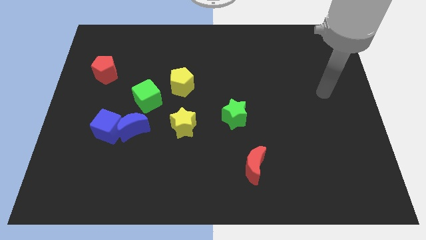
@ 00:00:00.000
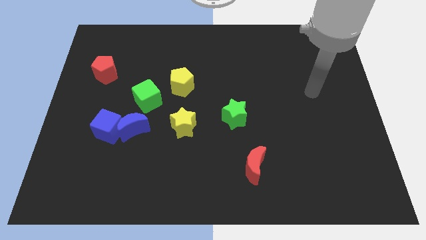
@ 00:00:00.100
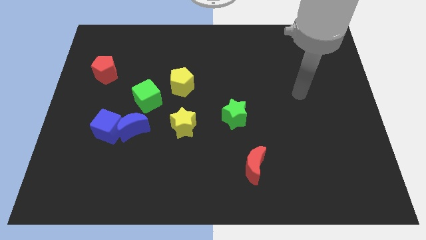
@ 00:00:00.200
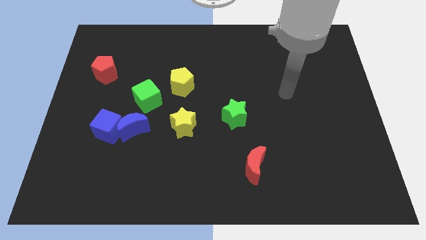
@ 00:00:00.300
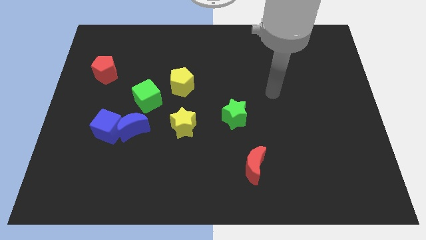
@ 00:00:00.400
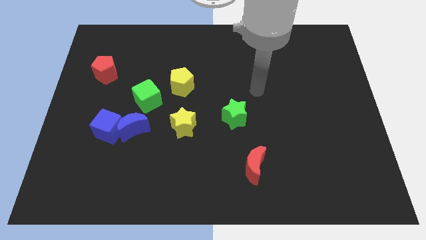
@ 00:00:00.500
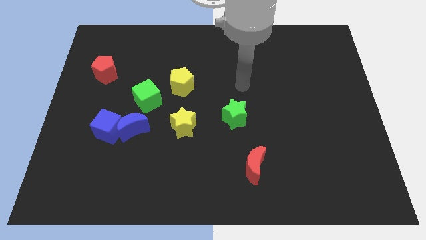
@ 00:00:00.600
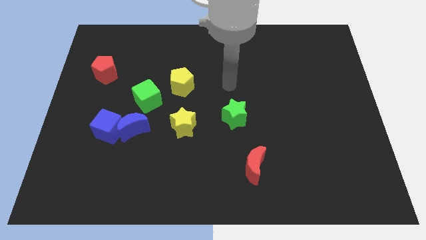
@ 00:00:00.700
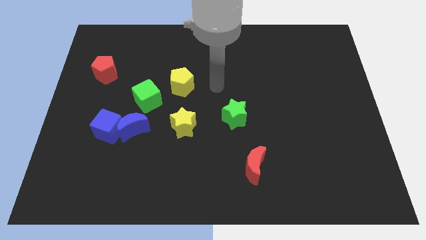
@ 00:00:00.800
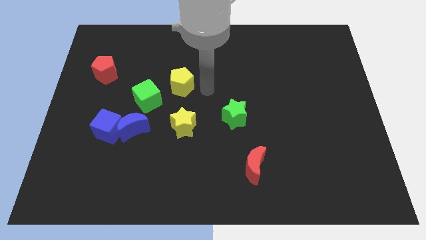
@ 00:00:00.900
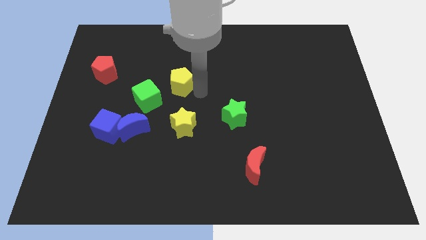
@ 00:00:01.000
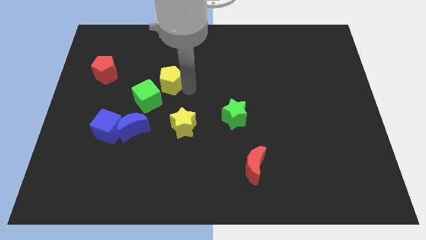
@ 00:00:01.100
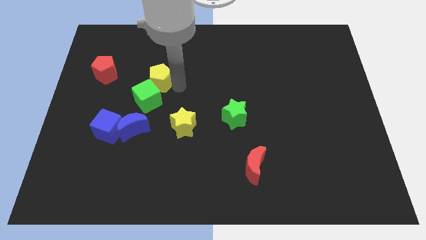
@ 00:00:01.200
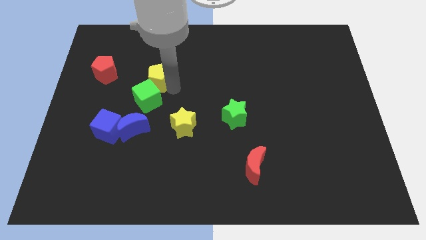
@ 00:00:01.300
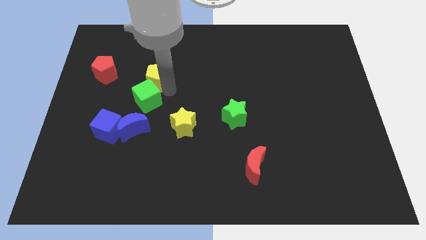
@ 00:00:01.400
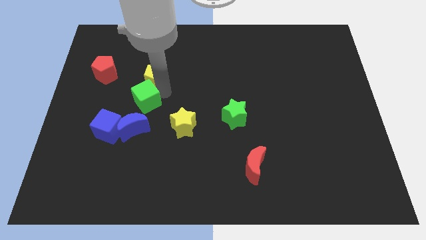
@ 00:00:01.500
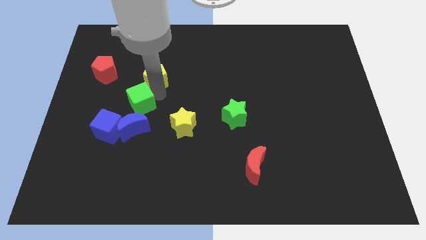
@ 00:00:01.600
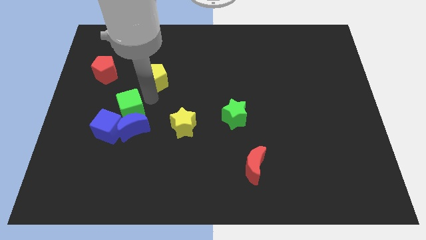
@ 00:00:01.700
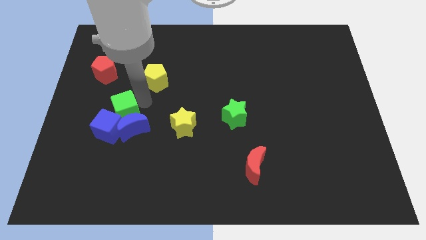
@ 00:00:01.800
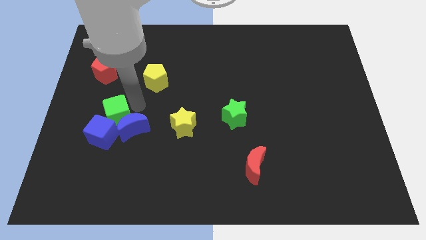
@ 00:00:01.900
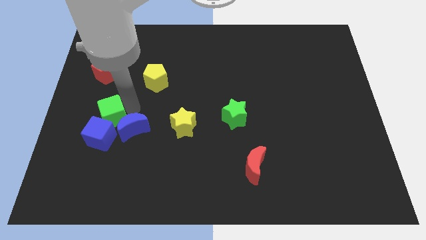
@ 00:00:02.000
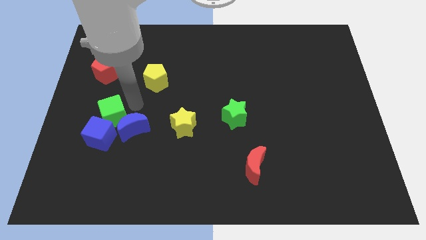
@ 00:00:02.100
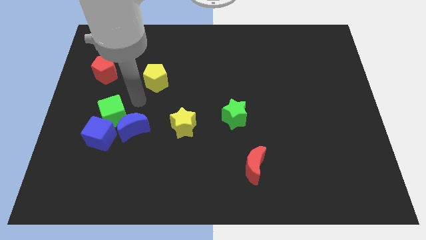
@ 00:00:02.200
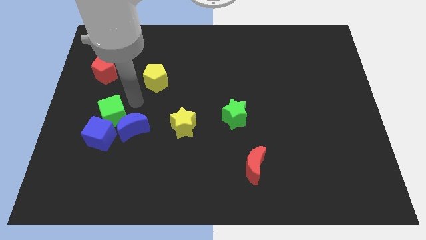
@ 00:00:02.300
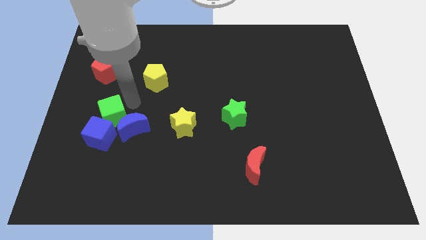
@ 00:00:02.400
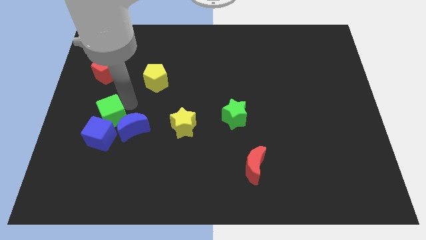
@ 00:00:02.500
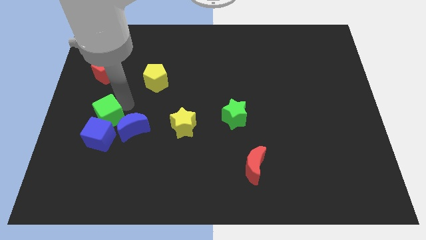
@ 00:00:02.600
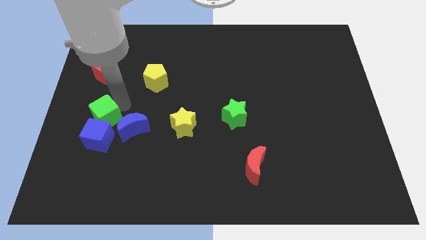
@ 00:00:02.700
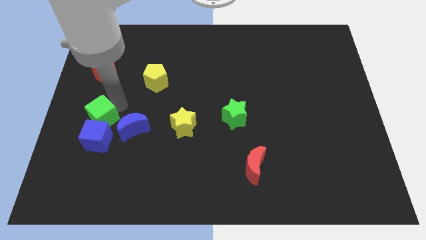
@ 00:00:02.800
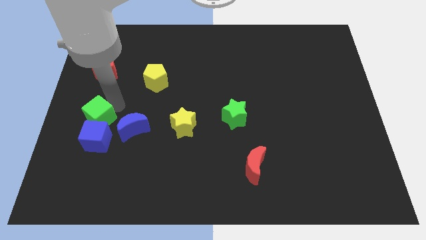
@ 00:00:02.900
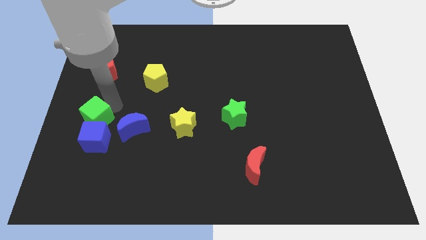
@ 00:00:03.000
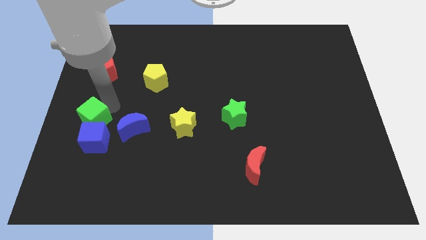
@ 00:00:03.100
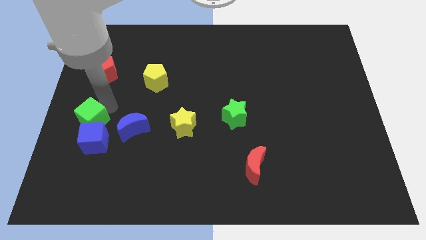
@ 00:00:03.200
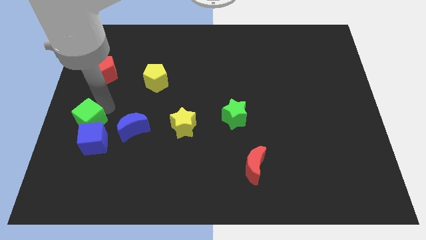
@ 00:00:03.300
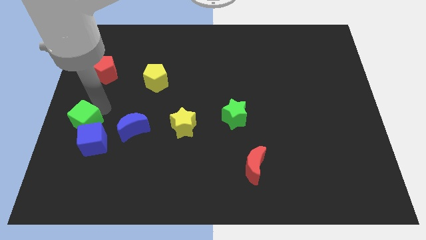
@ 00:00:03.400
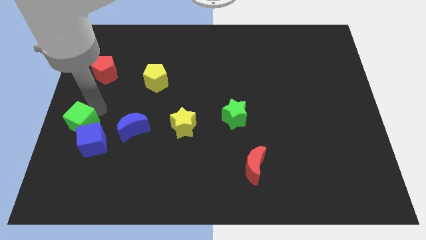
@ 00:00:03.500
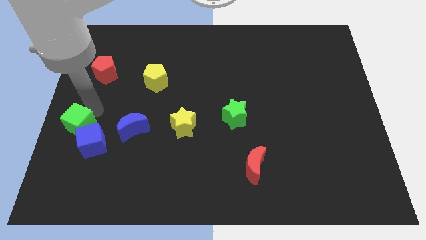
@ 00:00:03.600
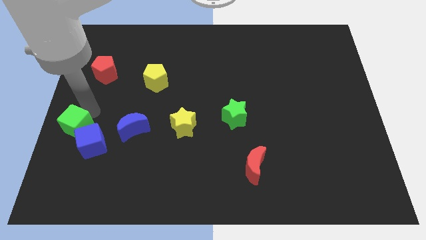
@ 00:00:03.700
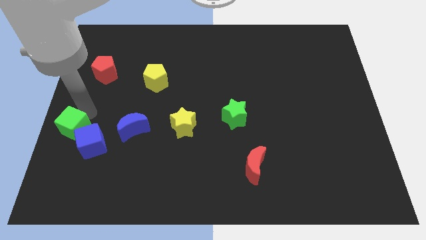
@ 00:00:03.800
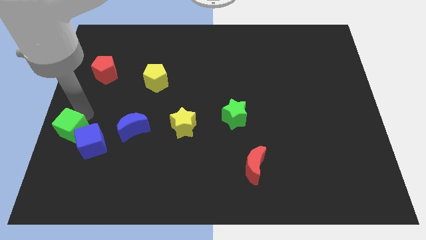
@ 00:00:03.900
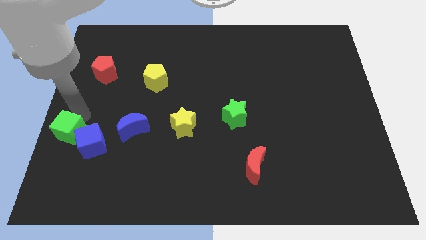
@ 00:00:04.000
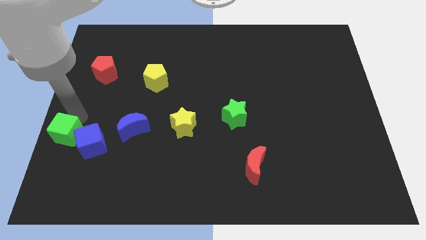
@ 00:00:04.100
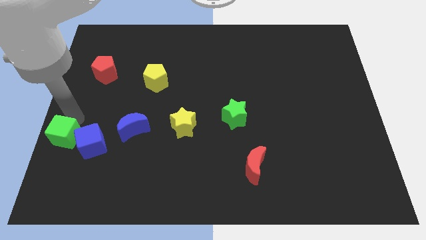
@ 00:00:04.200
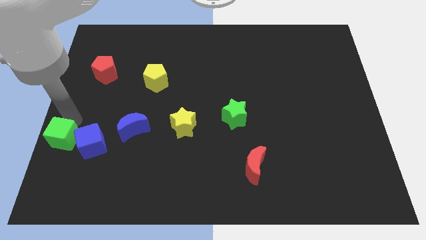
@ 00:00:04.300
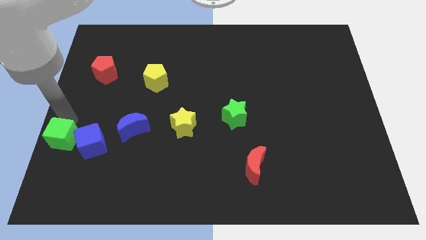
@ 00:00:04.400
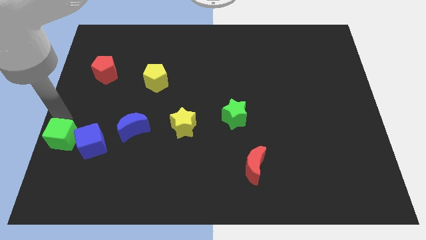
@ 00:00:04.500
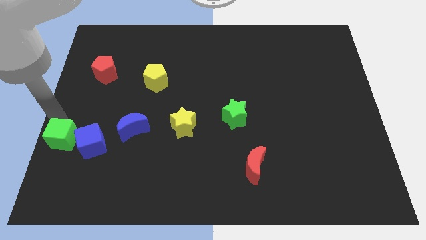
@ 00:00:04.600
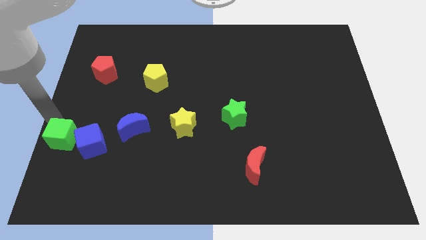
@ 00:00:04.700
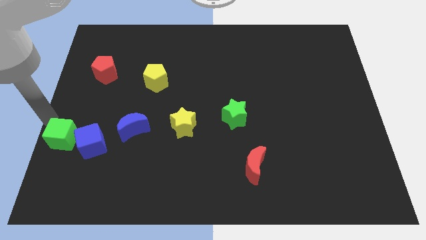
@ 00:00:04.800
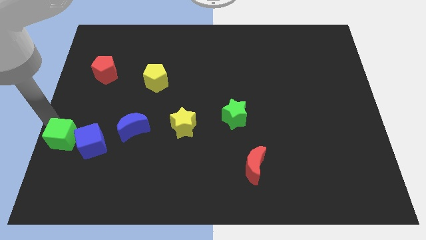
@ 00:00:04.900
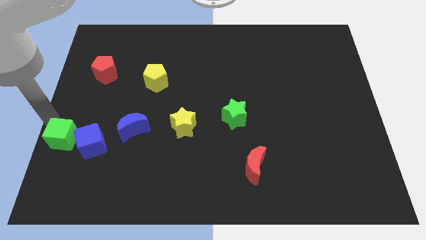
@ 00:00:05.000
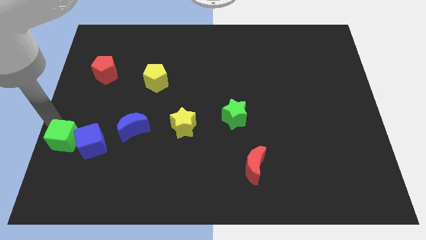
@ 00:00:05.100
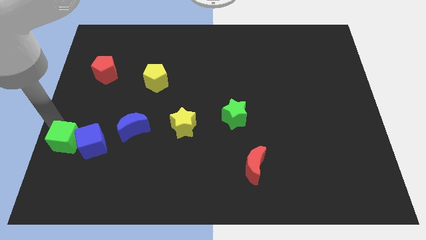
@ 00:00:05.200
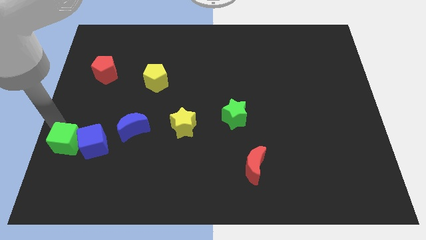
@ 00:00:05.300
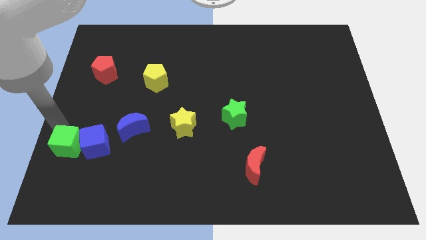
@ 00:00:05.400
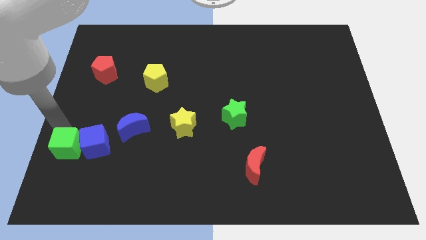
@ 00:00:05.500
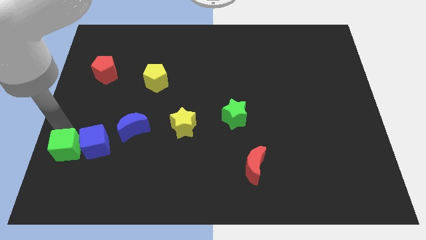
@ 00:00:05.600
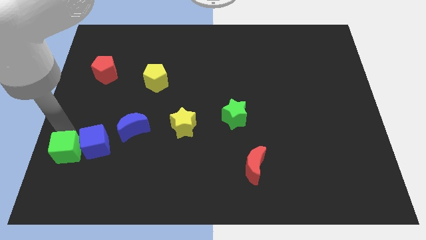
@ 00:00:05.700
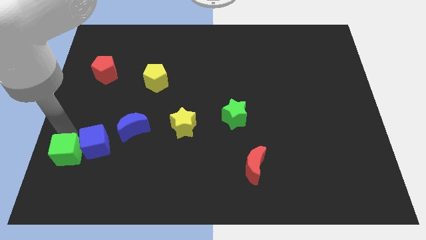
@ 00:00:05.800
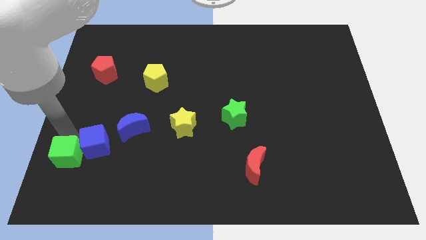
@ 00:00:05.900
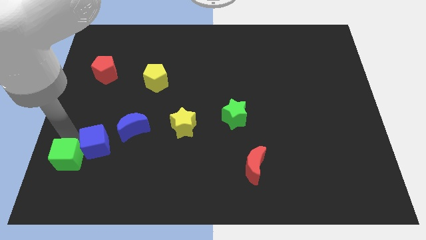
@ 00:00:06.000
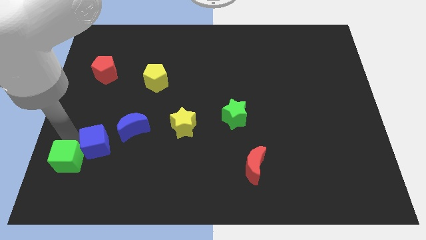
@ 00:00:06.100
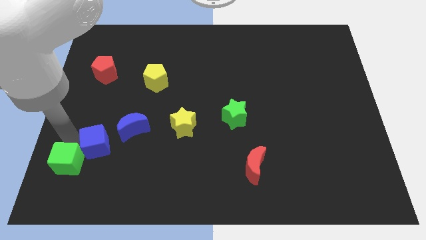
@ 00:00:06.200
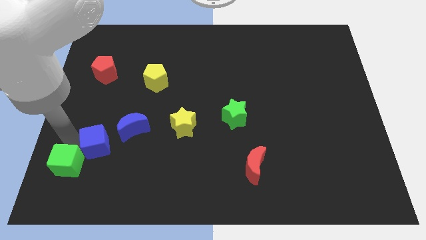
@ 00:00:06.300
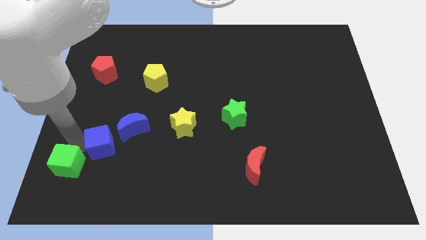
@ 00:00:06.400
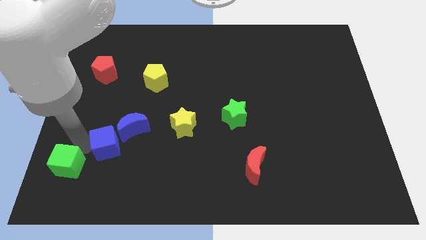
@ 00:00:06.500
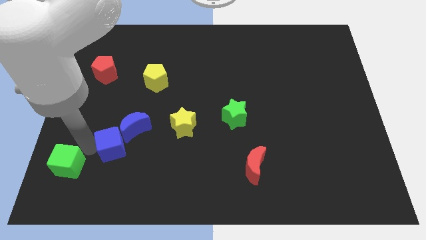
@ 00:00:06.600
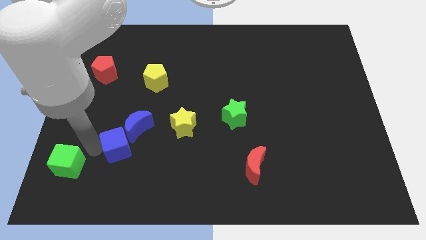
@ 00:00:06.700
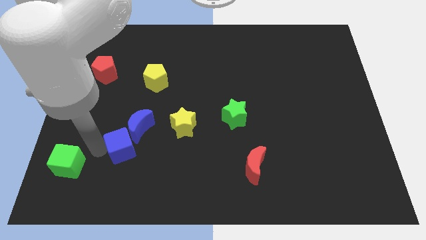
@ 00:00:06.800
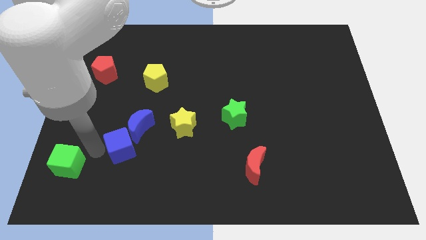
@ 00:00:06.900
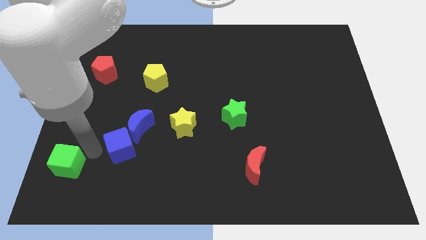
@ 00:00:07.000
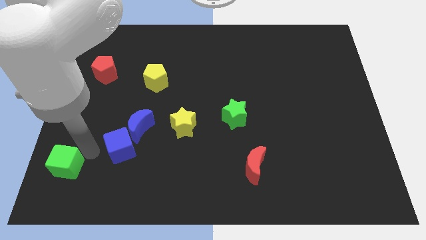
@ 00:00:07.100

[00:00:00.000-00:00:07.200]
slide the green cube to the lower left corner
